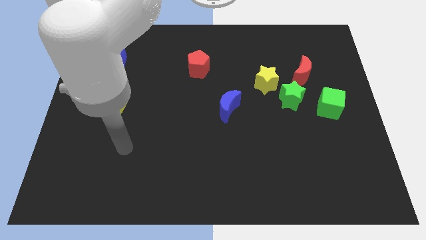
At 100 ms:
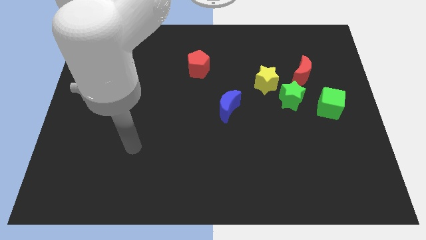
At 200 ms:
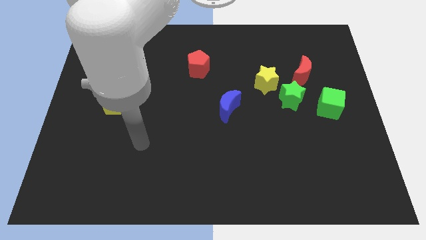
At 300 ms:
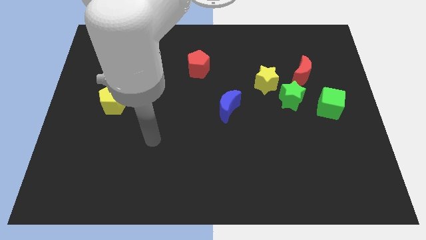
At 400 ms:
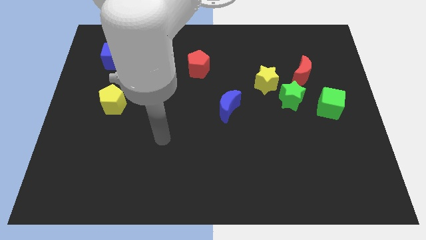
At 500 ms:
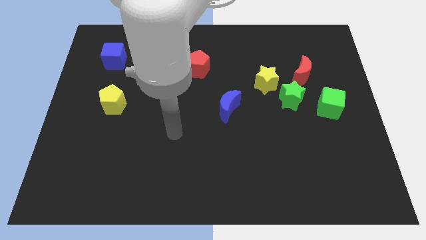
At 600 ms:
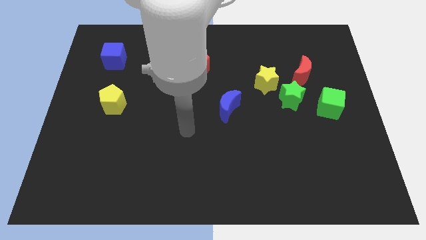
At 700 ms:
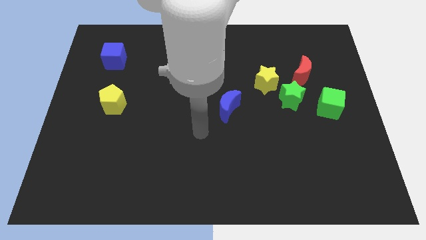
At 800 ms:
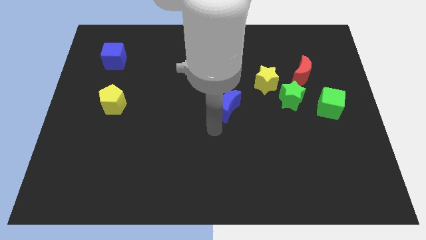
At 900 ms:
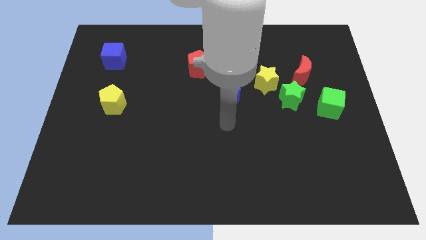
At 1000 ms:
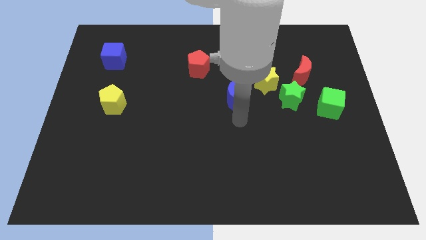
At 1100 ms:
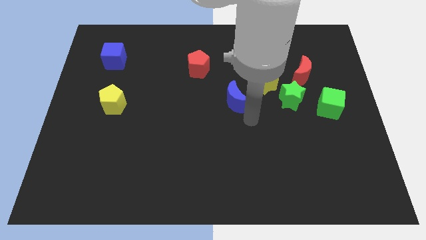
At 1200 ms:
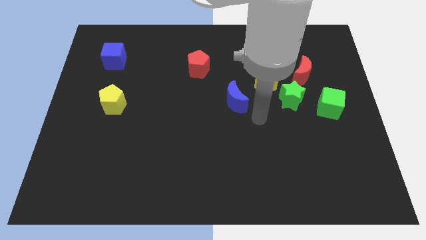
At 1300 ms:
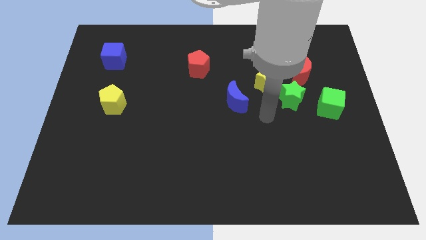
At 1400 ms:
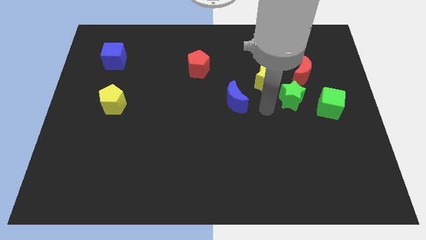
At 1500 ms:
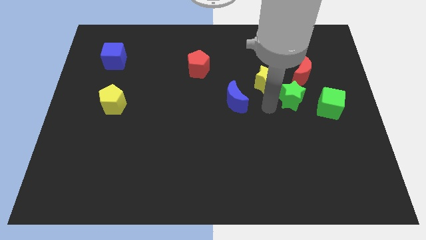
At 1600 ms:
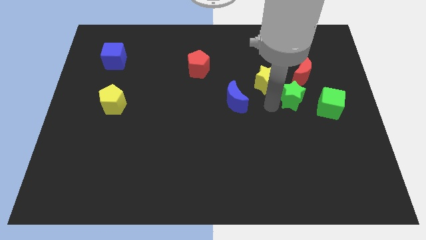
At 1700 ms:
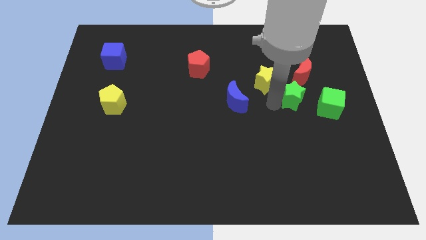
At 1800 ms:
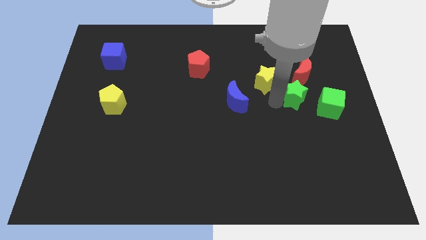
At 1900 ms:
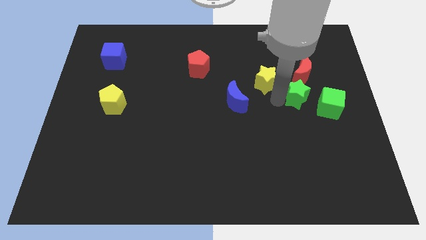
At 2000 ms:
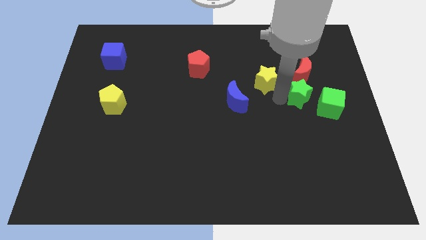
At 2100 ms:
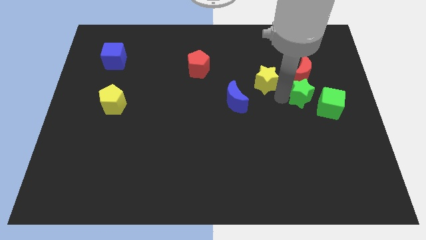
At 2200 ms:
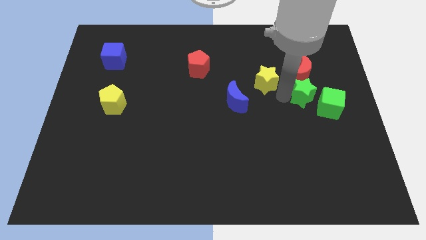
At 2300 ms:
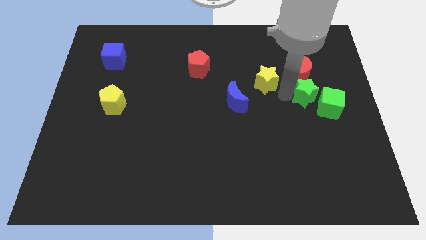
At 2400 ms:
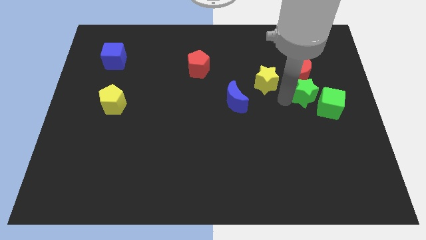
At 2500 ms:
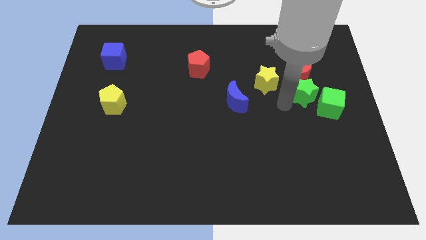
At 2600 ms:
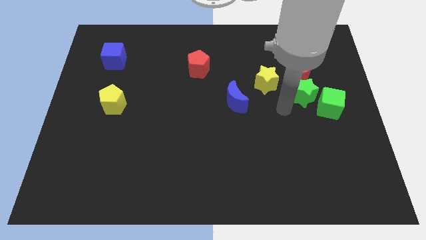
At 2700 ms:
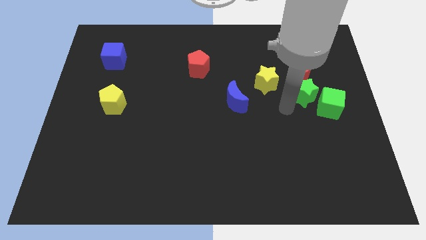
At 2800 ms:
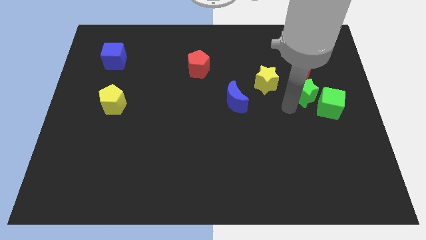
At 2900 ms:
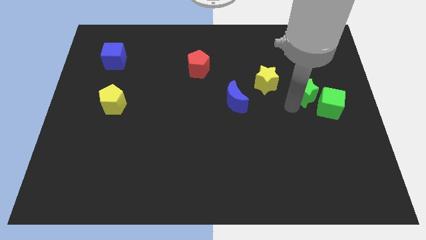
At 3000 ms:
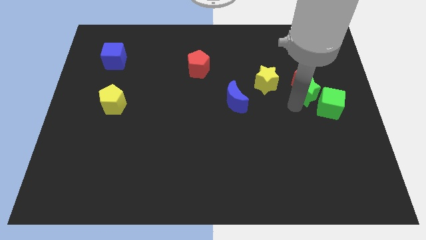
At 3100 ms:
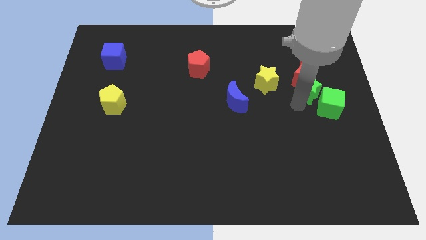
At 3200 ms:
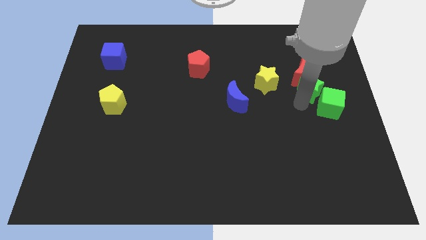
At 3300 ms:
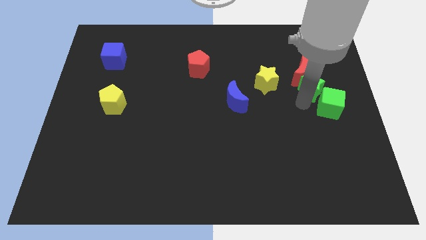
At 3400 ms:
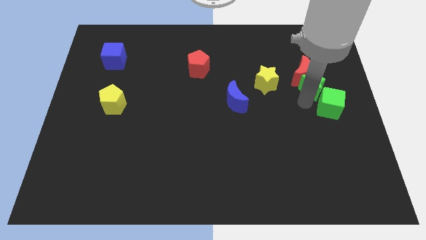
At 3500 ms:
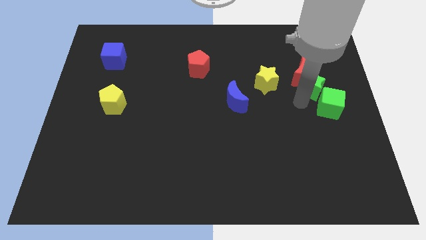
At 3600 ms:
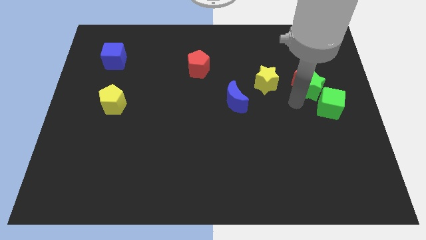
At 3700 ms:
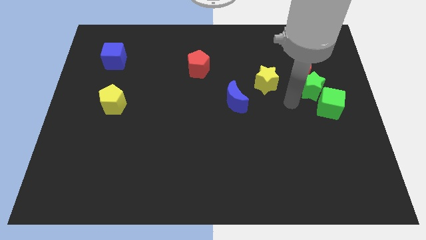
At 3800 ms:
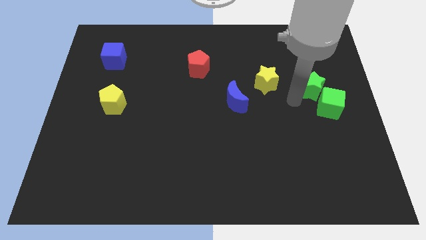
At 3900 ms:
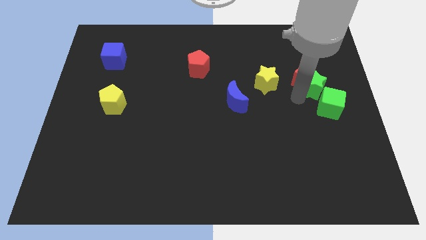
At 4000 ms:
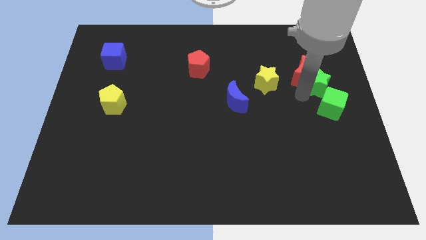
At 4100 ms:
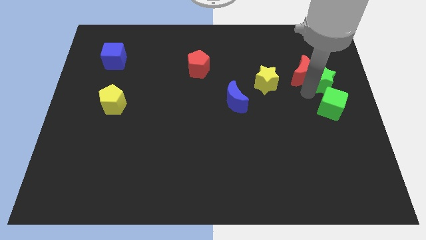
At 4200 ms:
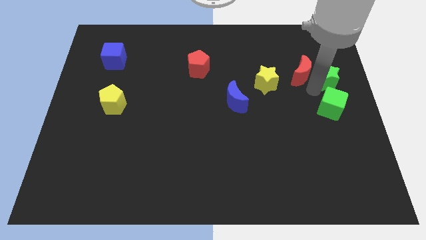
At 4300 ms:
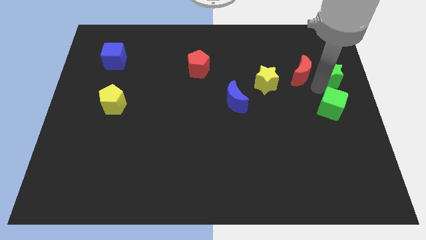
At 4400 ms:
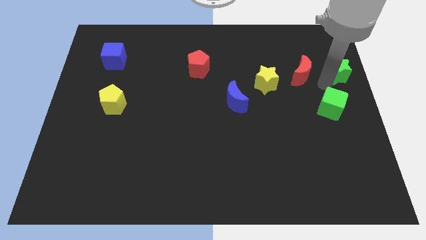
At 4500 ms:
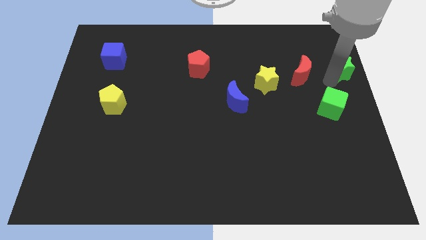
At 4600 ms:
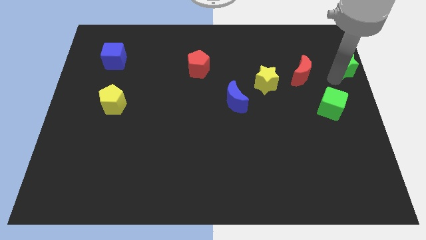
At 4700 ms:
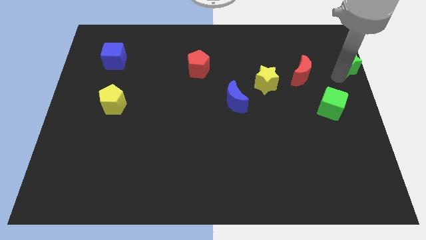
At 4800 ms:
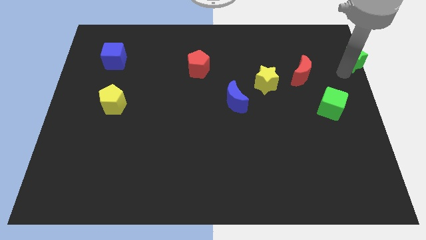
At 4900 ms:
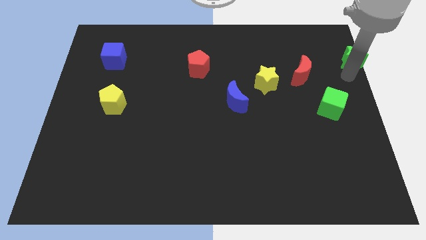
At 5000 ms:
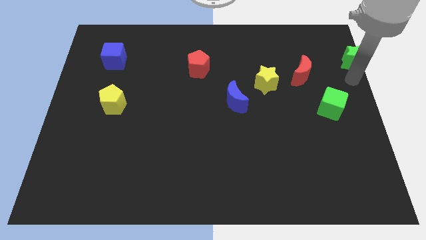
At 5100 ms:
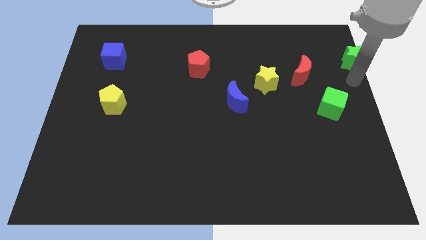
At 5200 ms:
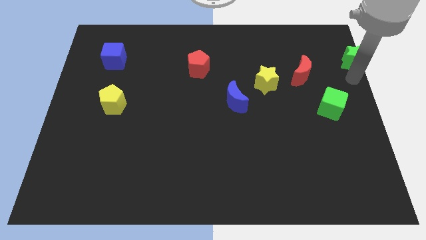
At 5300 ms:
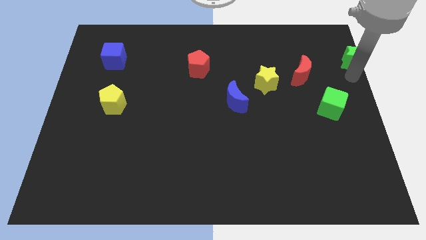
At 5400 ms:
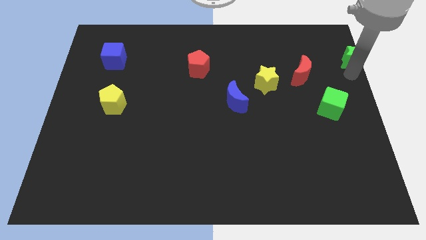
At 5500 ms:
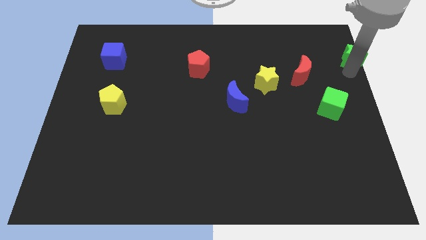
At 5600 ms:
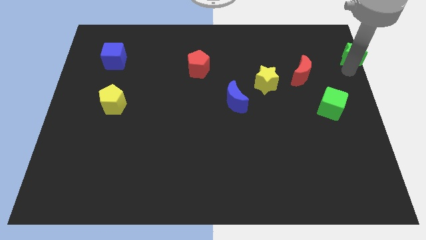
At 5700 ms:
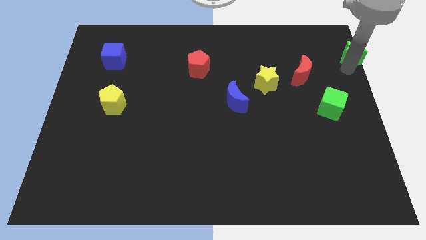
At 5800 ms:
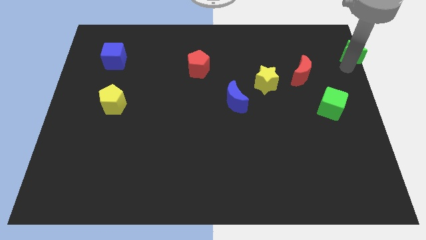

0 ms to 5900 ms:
push the green star to the upper right corner

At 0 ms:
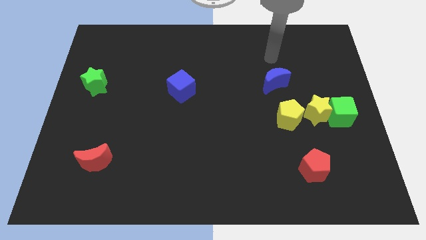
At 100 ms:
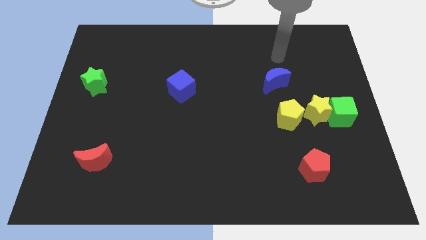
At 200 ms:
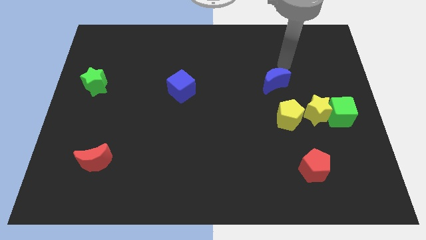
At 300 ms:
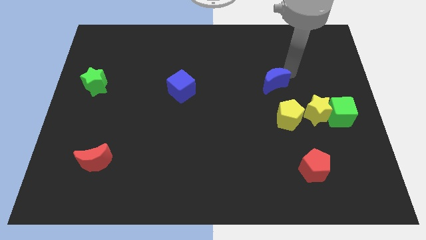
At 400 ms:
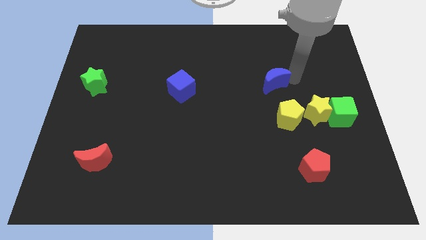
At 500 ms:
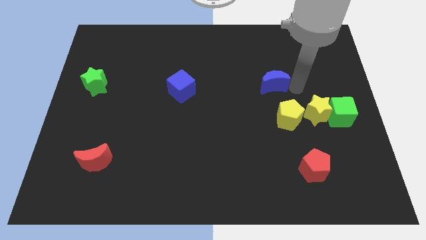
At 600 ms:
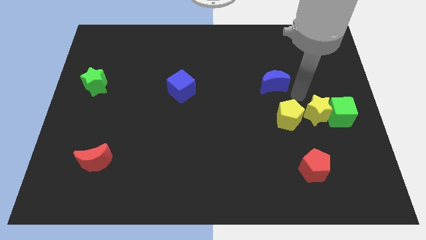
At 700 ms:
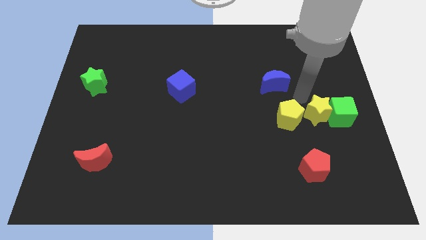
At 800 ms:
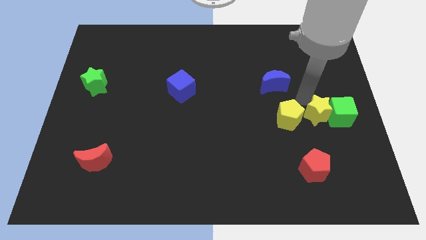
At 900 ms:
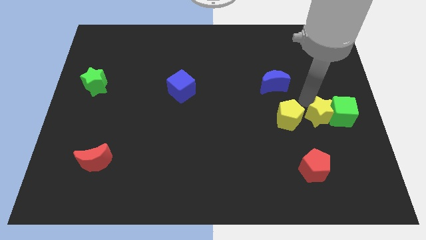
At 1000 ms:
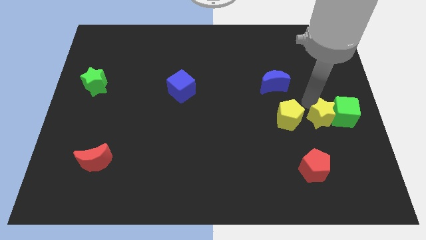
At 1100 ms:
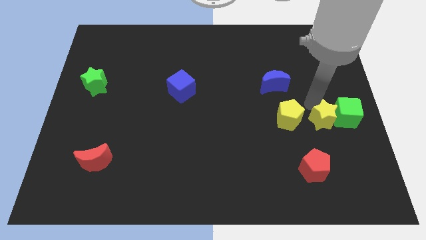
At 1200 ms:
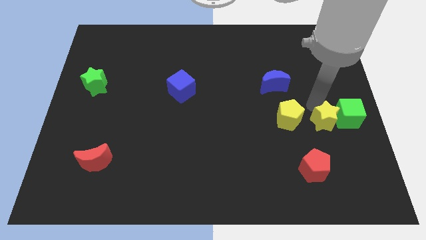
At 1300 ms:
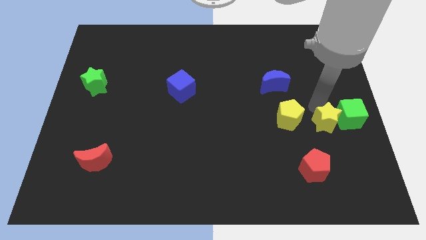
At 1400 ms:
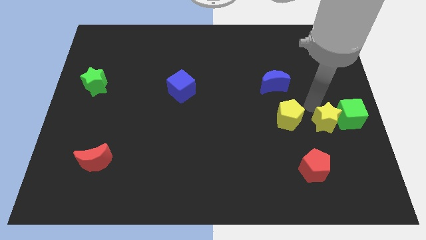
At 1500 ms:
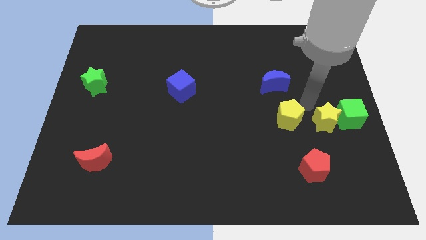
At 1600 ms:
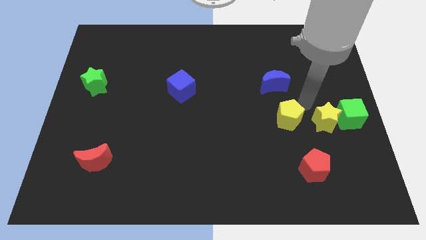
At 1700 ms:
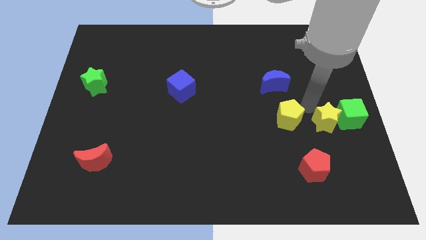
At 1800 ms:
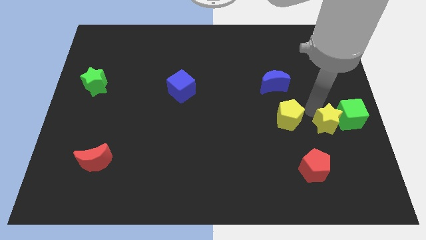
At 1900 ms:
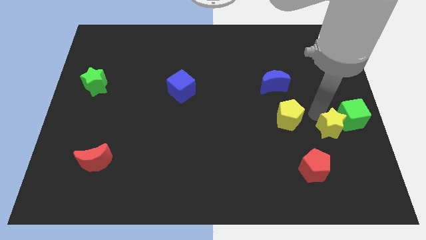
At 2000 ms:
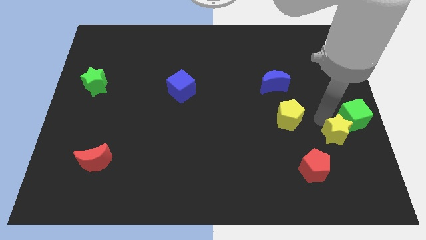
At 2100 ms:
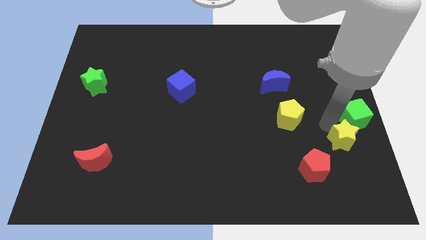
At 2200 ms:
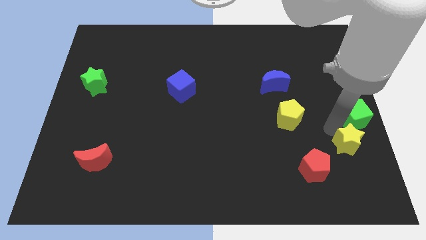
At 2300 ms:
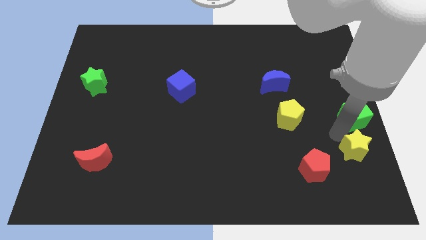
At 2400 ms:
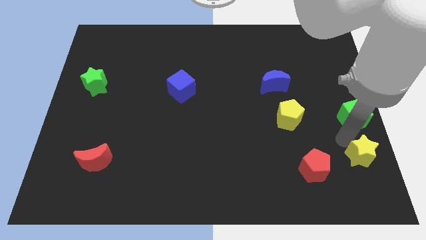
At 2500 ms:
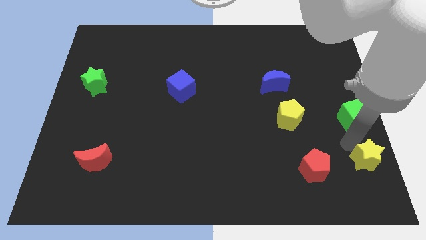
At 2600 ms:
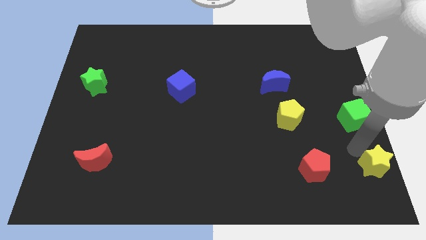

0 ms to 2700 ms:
move the yellow star to the bottom right corner
